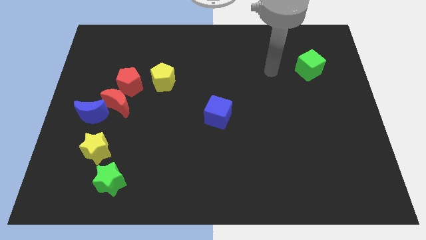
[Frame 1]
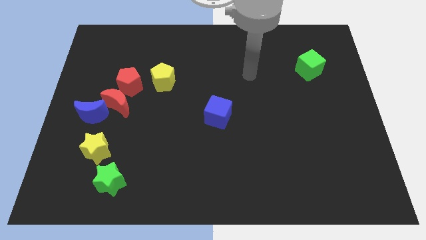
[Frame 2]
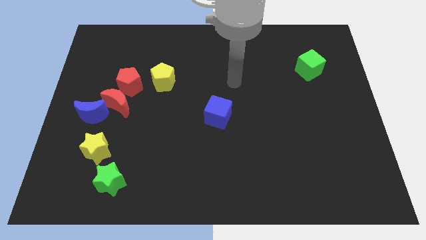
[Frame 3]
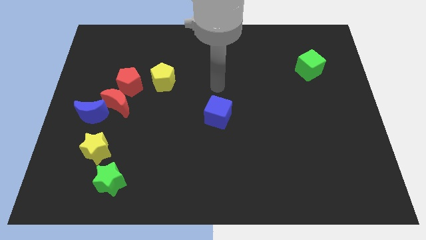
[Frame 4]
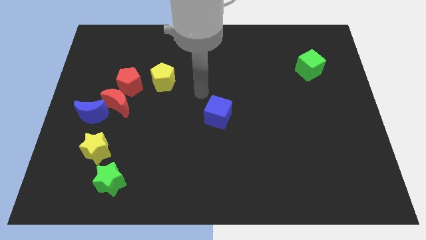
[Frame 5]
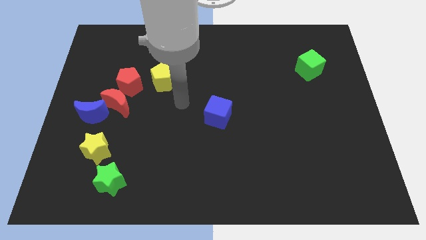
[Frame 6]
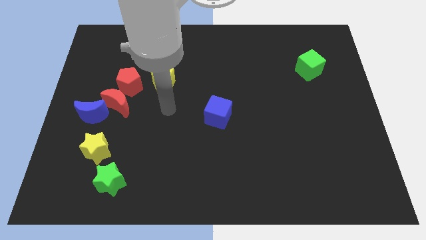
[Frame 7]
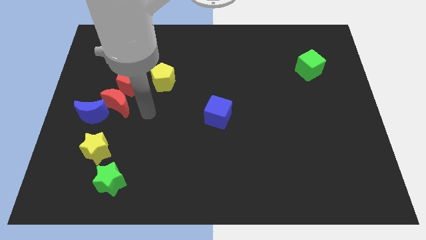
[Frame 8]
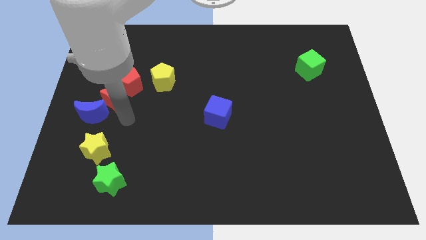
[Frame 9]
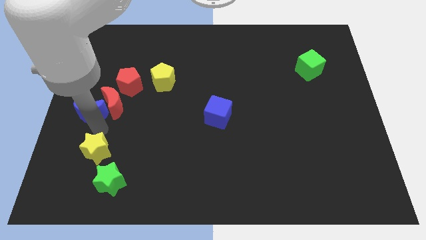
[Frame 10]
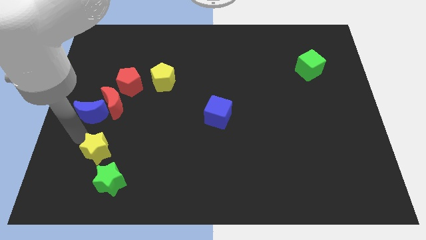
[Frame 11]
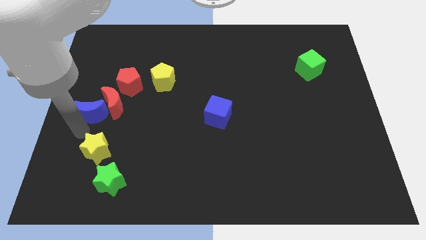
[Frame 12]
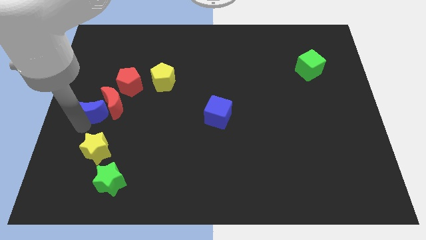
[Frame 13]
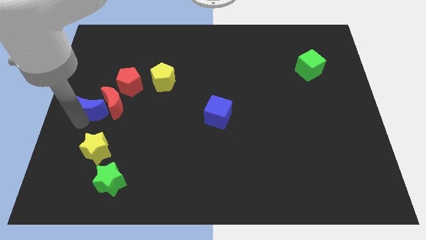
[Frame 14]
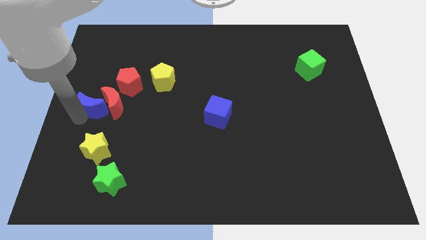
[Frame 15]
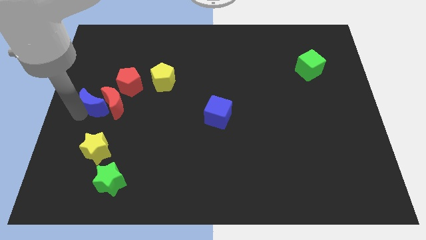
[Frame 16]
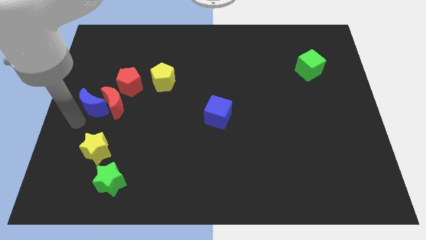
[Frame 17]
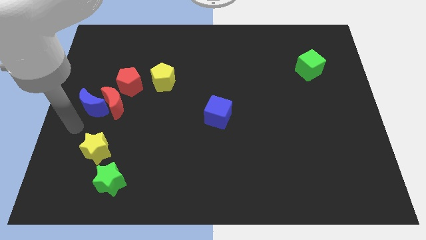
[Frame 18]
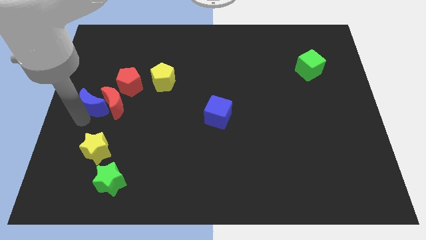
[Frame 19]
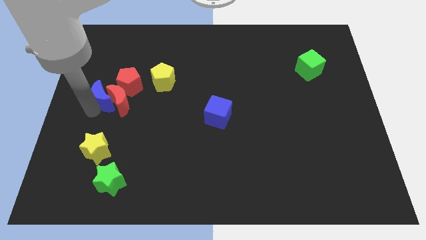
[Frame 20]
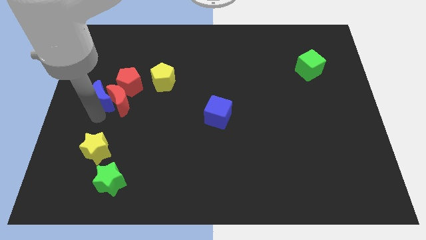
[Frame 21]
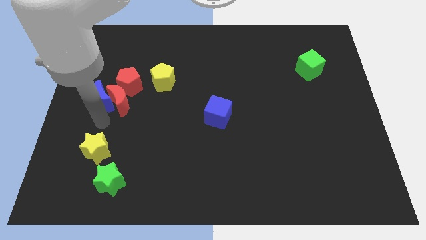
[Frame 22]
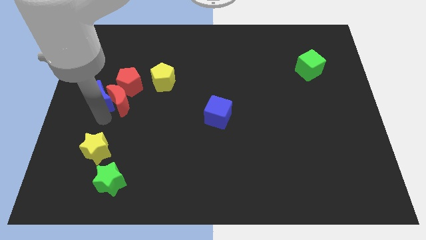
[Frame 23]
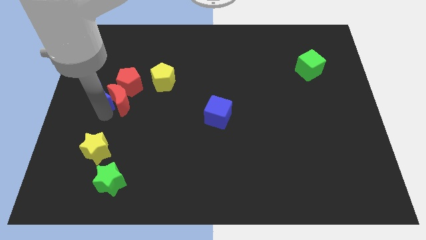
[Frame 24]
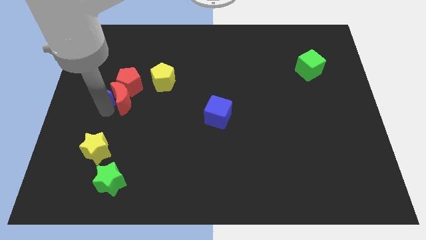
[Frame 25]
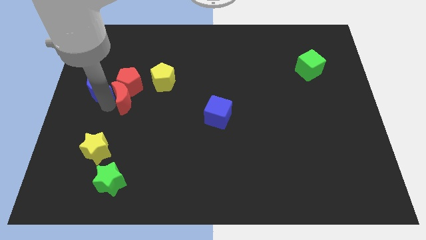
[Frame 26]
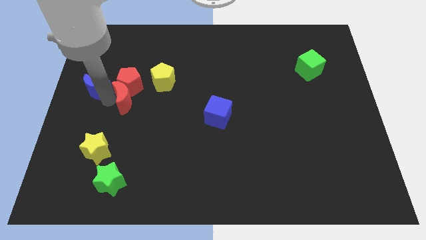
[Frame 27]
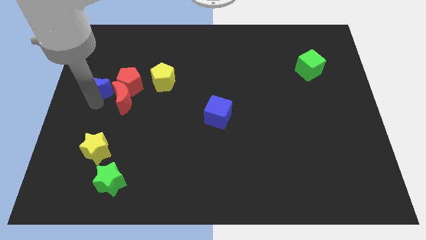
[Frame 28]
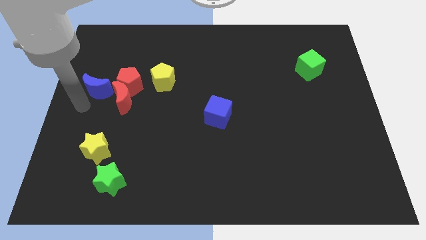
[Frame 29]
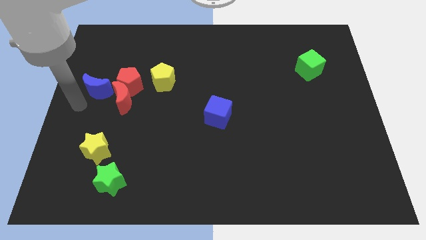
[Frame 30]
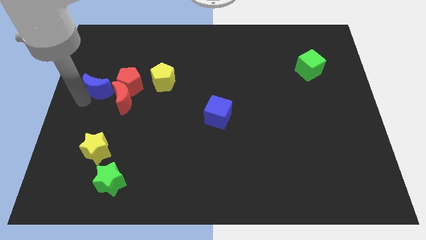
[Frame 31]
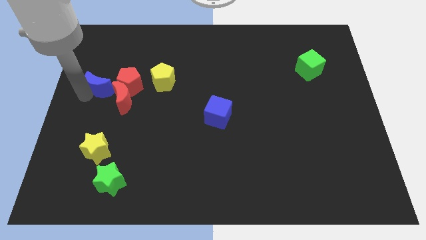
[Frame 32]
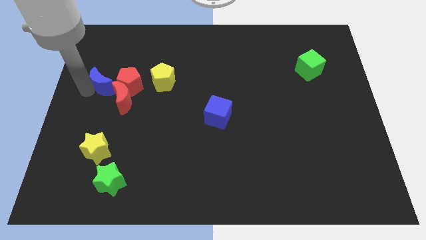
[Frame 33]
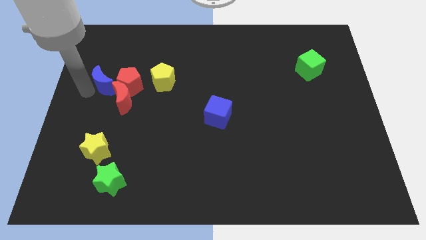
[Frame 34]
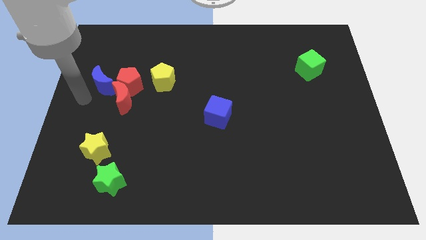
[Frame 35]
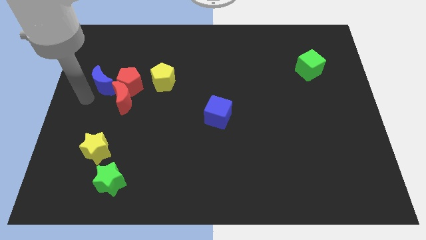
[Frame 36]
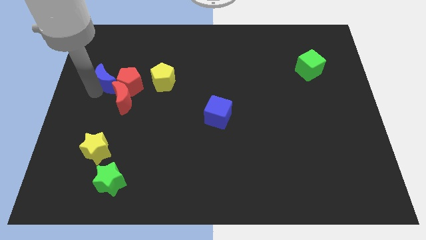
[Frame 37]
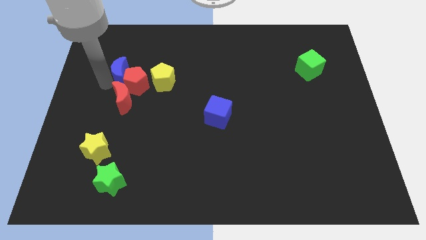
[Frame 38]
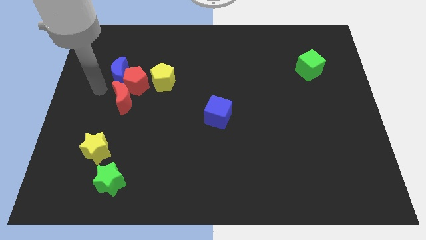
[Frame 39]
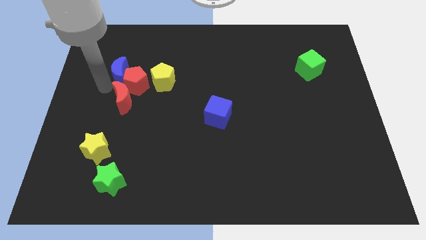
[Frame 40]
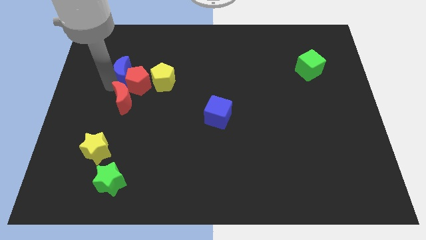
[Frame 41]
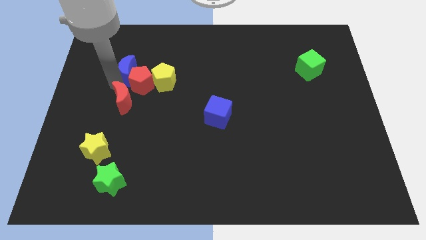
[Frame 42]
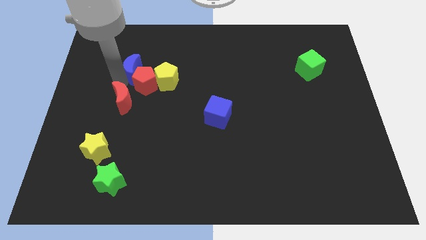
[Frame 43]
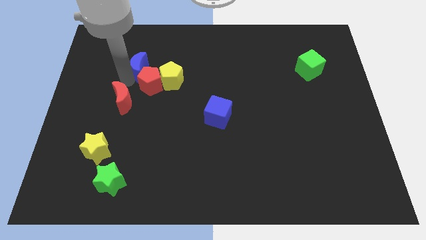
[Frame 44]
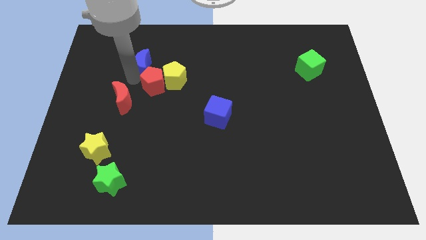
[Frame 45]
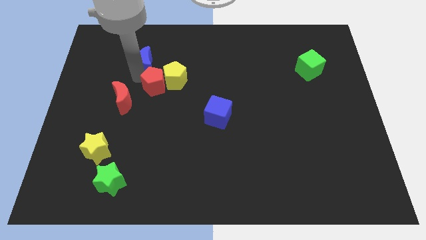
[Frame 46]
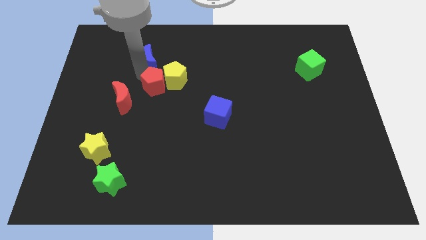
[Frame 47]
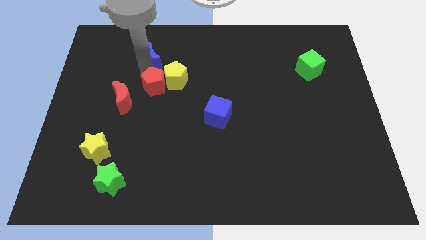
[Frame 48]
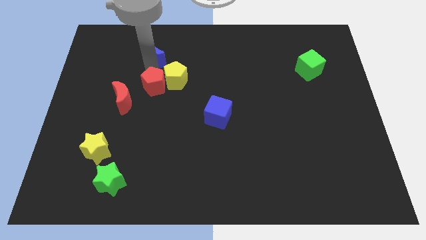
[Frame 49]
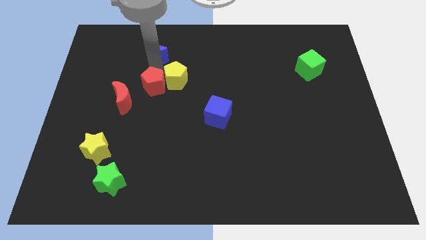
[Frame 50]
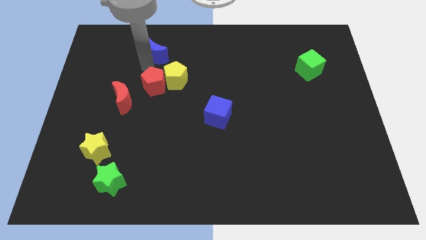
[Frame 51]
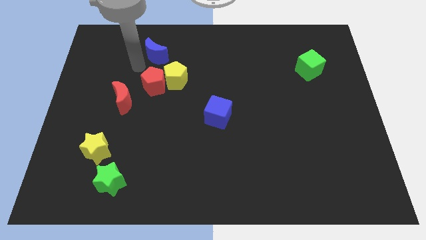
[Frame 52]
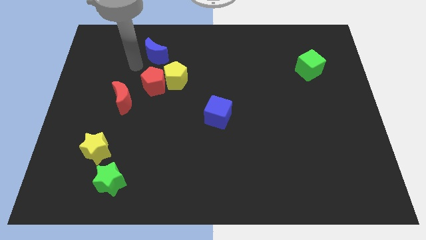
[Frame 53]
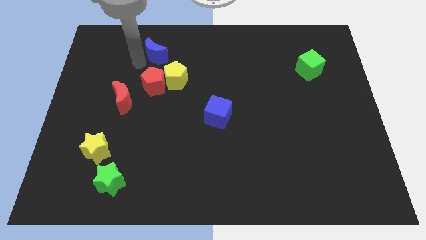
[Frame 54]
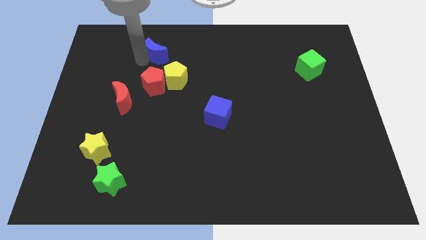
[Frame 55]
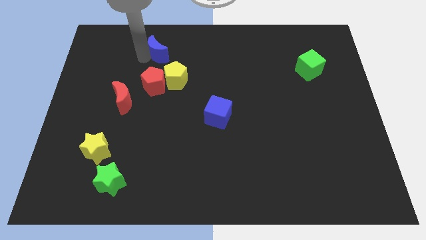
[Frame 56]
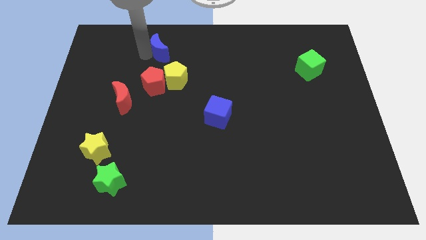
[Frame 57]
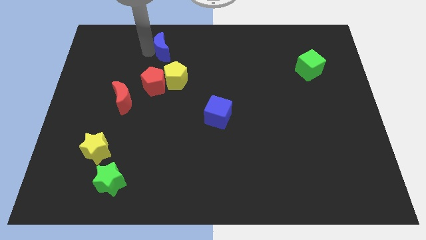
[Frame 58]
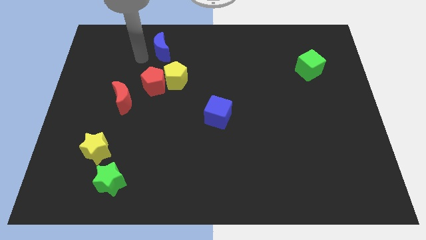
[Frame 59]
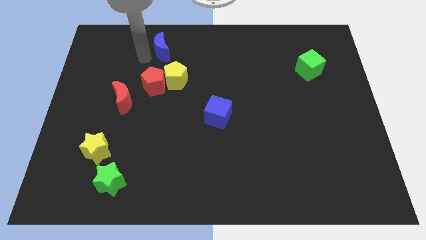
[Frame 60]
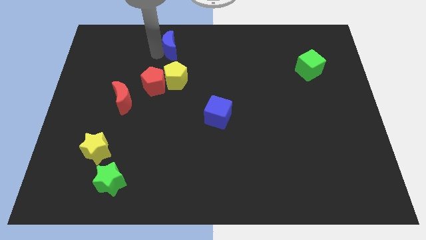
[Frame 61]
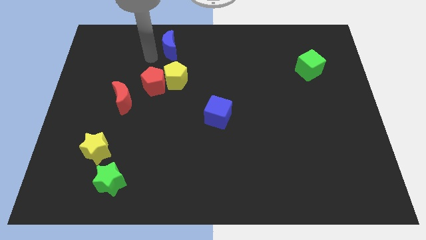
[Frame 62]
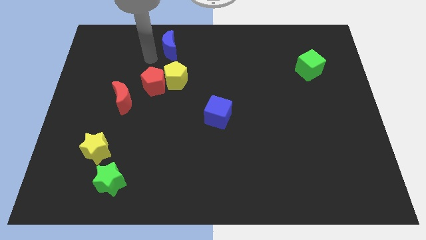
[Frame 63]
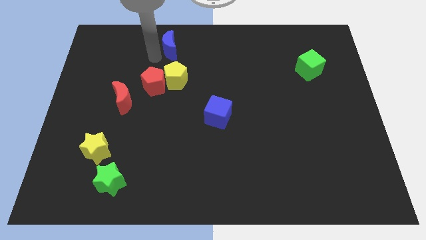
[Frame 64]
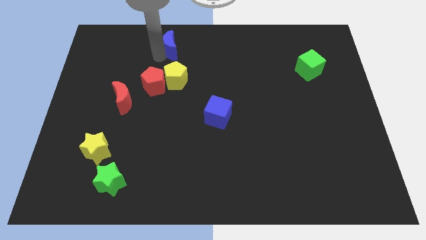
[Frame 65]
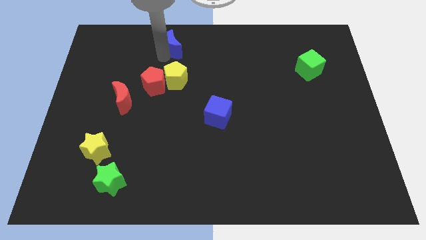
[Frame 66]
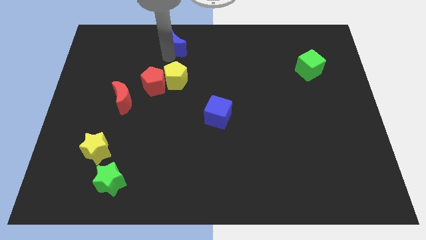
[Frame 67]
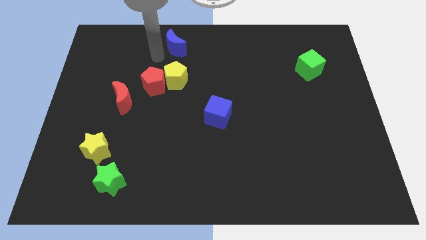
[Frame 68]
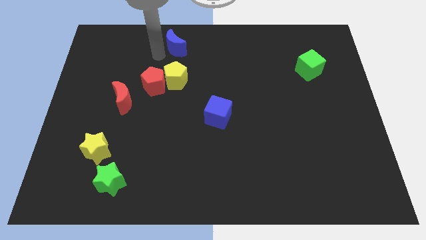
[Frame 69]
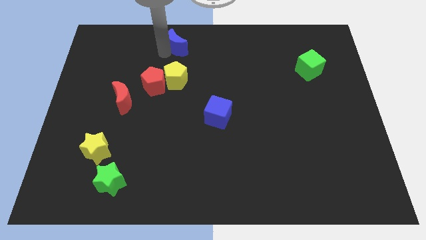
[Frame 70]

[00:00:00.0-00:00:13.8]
move the blue moon to the top side
